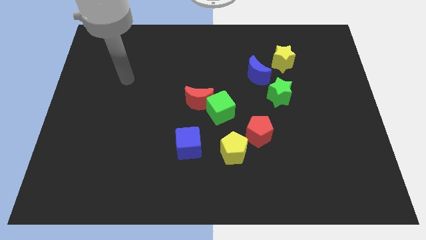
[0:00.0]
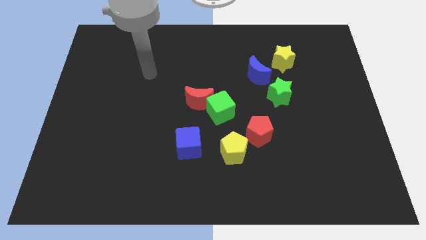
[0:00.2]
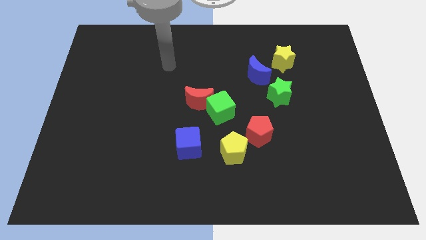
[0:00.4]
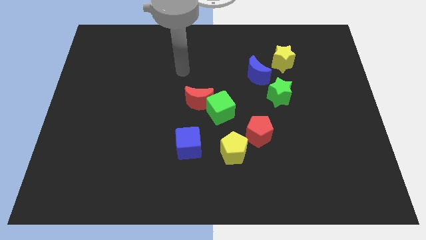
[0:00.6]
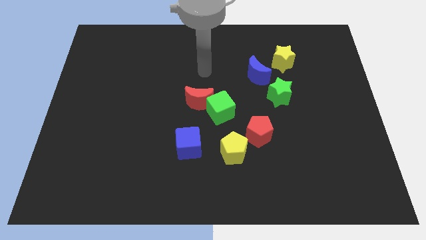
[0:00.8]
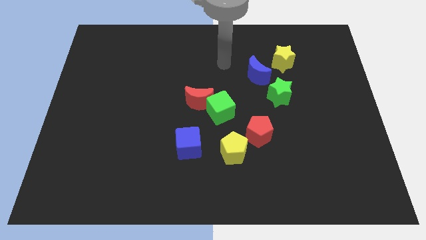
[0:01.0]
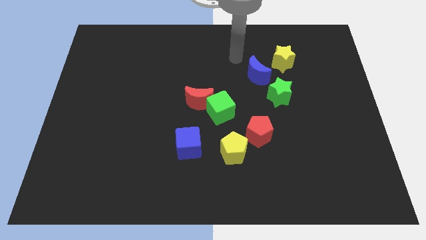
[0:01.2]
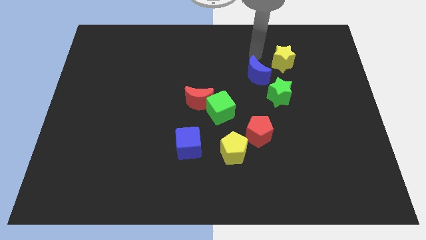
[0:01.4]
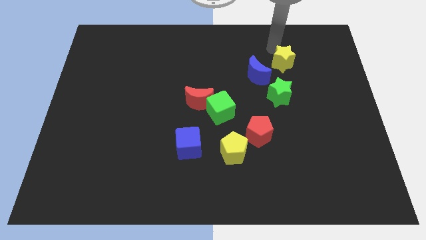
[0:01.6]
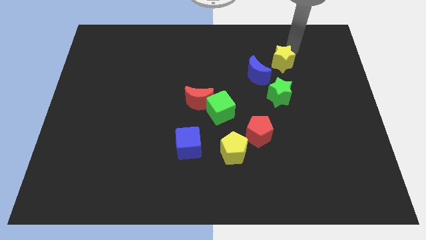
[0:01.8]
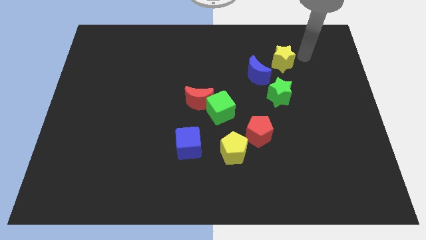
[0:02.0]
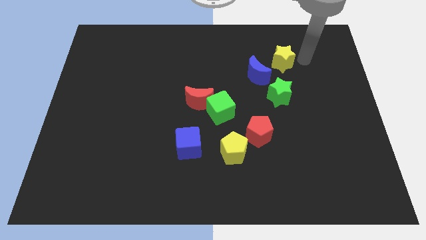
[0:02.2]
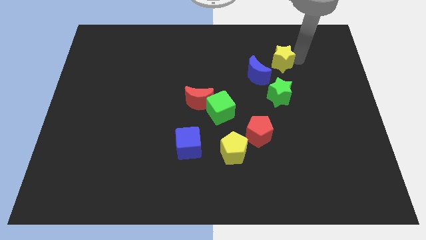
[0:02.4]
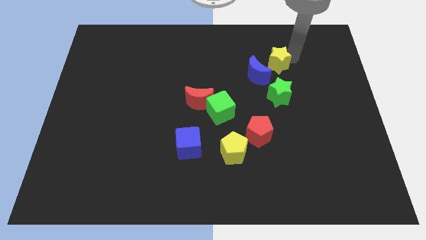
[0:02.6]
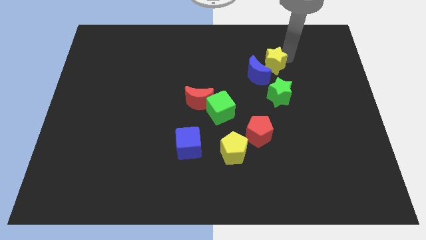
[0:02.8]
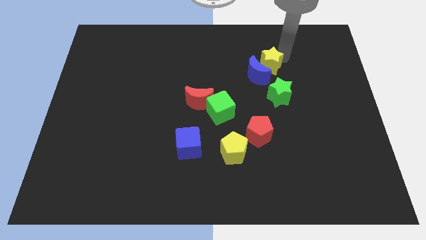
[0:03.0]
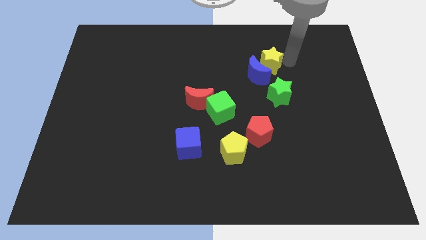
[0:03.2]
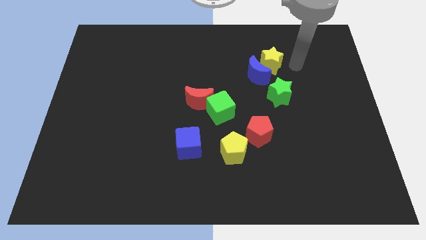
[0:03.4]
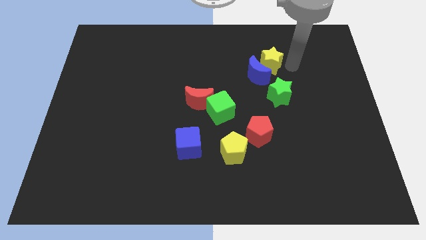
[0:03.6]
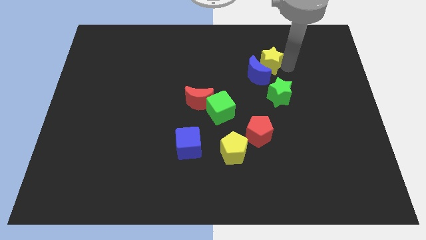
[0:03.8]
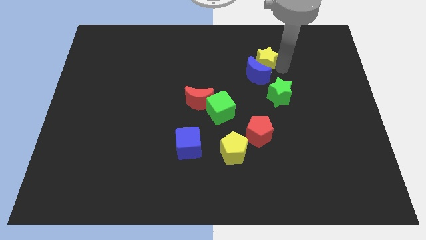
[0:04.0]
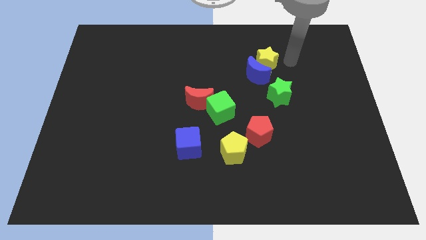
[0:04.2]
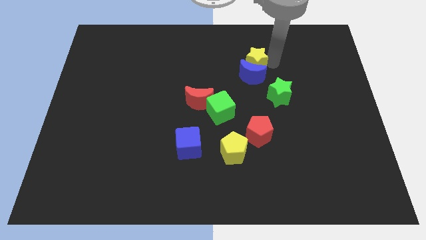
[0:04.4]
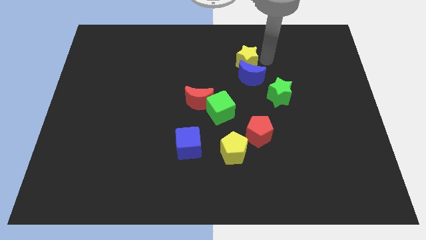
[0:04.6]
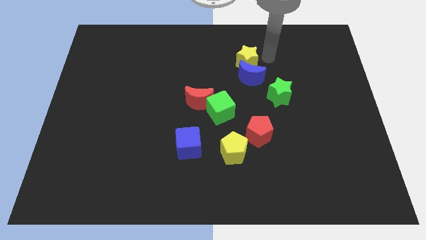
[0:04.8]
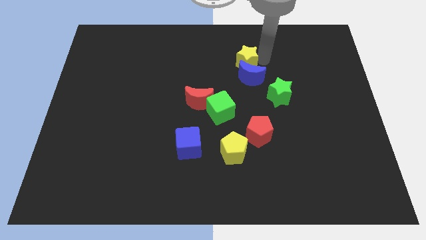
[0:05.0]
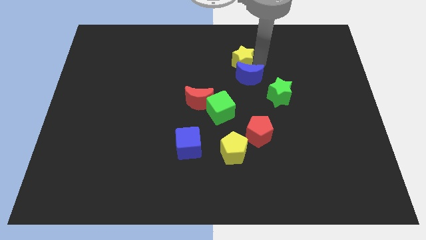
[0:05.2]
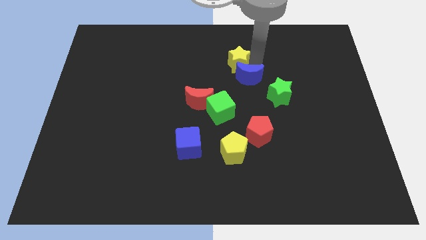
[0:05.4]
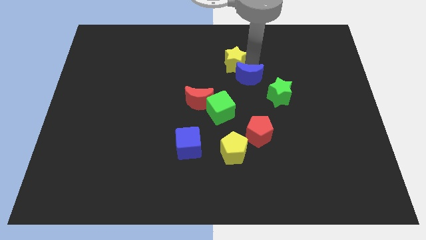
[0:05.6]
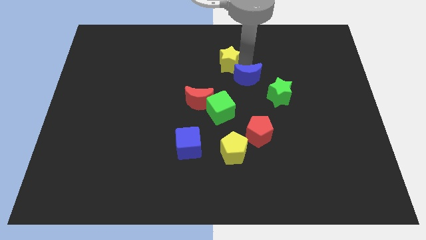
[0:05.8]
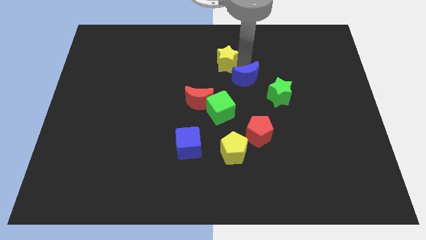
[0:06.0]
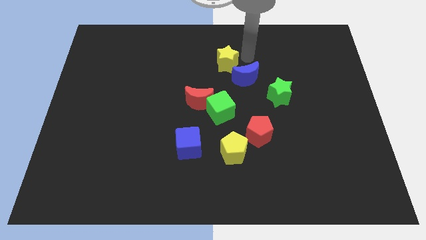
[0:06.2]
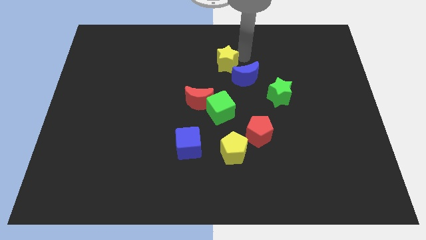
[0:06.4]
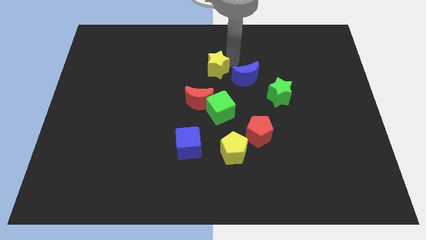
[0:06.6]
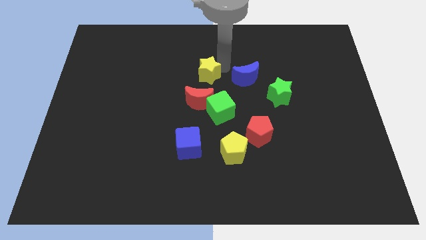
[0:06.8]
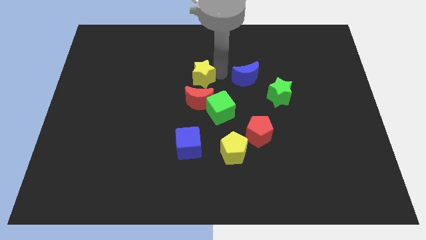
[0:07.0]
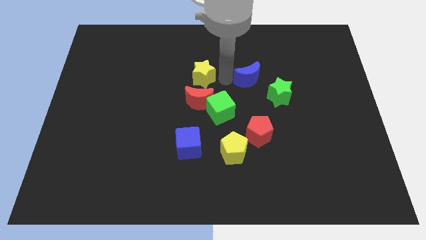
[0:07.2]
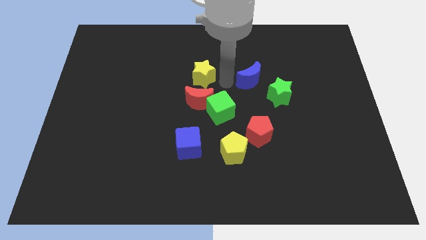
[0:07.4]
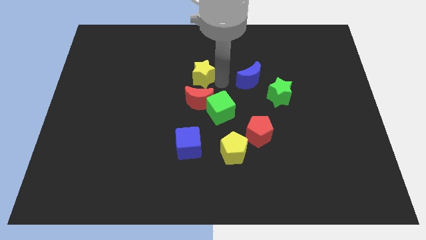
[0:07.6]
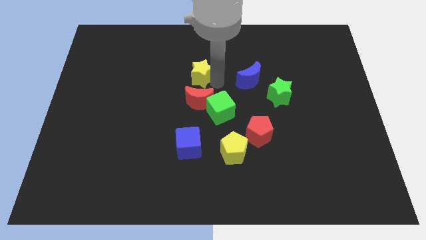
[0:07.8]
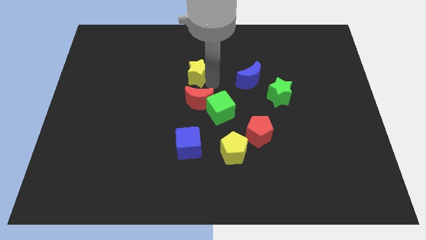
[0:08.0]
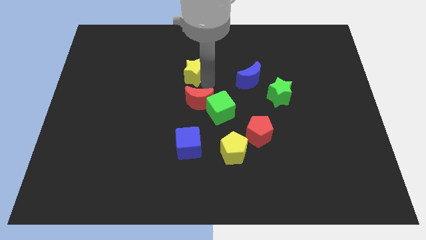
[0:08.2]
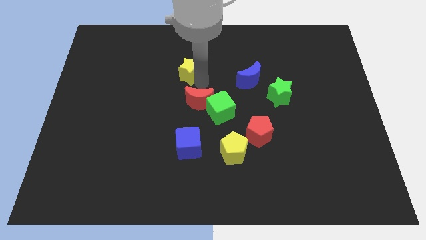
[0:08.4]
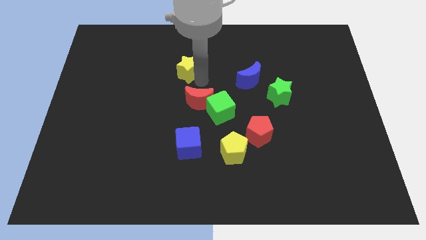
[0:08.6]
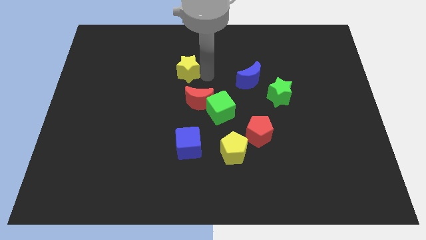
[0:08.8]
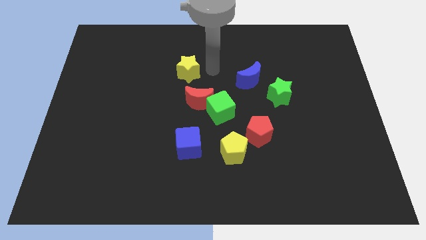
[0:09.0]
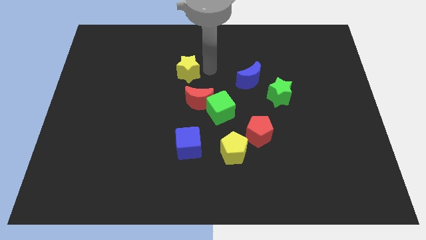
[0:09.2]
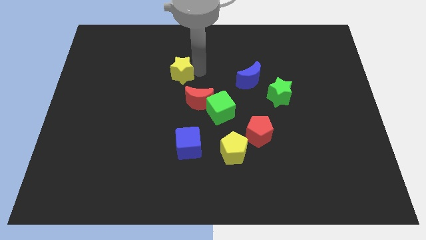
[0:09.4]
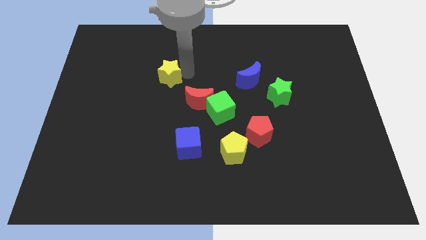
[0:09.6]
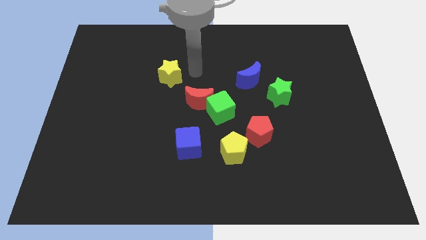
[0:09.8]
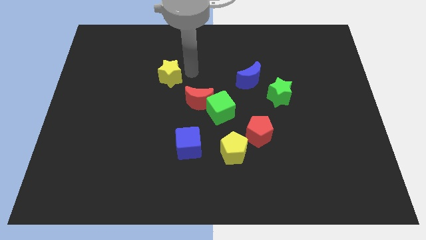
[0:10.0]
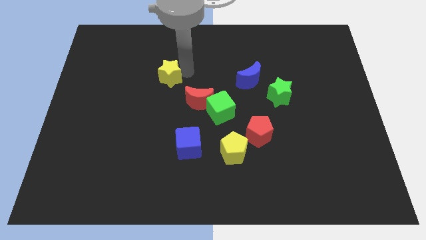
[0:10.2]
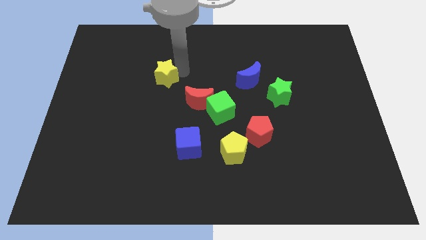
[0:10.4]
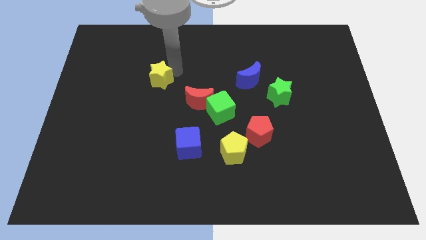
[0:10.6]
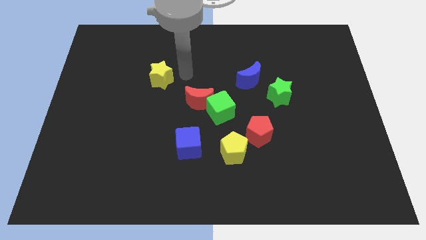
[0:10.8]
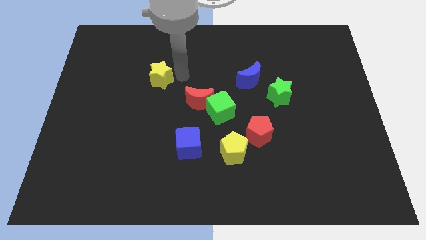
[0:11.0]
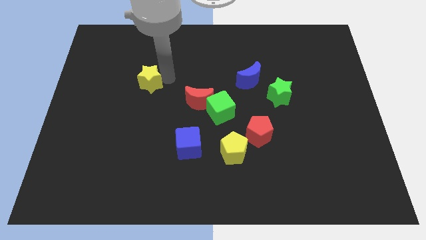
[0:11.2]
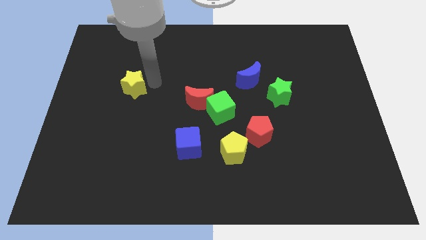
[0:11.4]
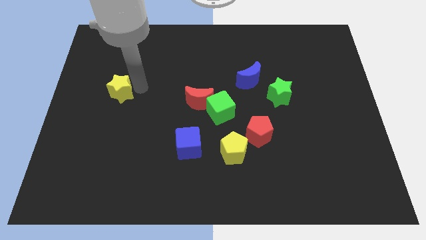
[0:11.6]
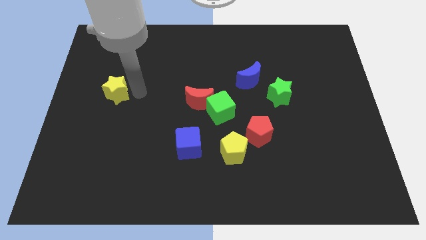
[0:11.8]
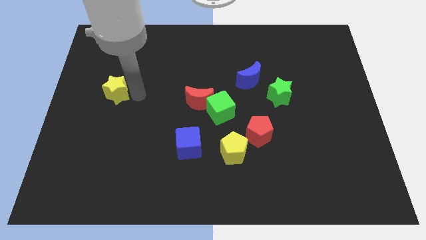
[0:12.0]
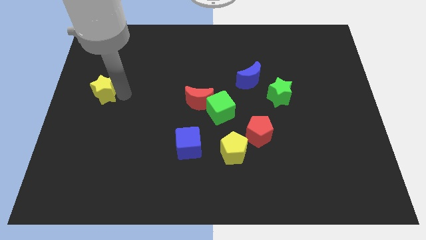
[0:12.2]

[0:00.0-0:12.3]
slide the yellow star to the left side

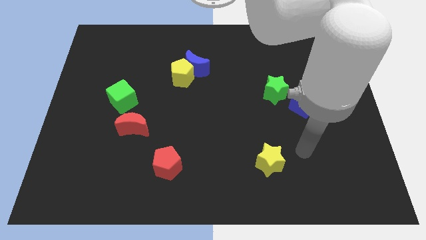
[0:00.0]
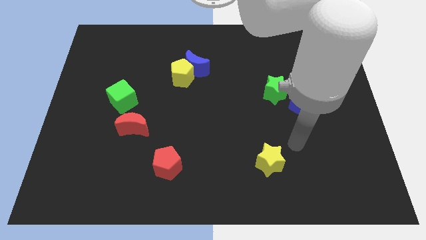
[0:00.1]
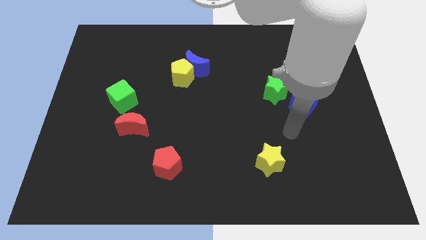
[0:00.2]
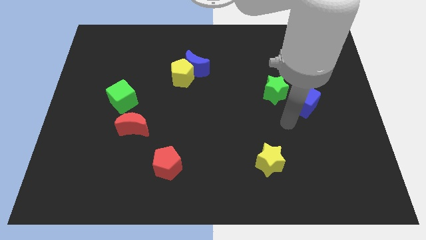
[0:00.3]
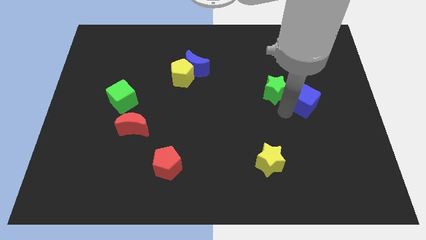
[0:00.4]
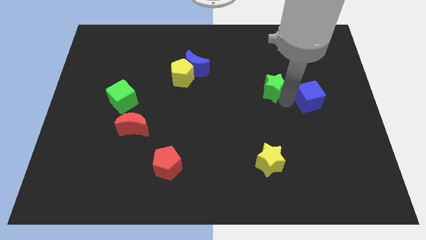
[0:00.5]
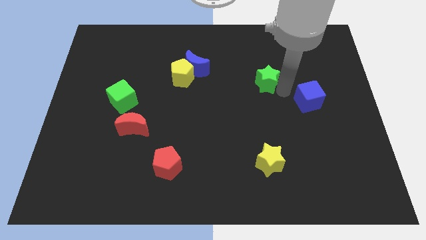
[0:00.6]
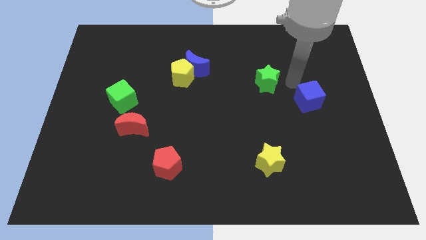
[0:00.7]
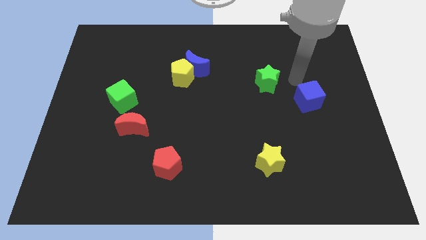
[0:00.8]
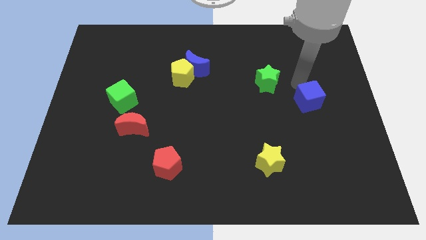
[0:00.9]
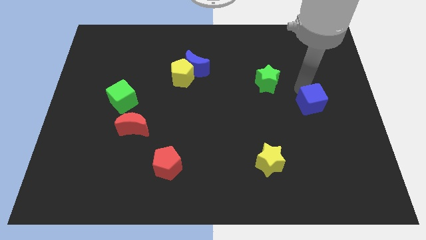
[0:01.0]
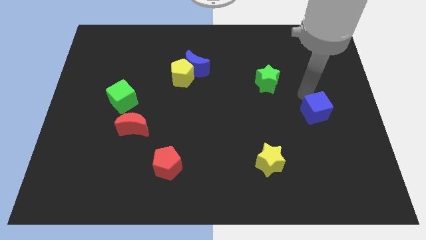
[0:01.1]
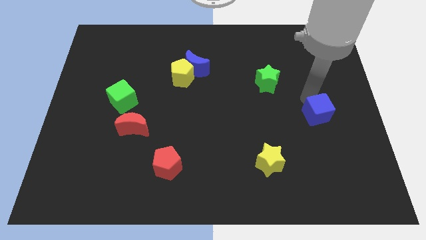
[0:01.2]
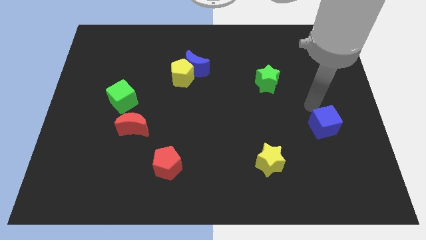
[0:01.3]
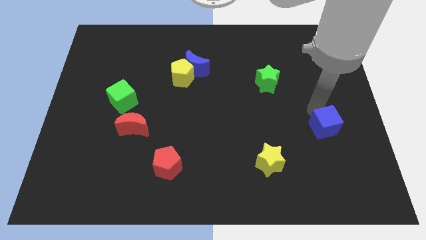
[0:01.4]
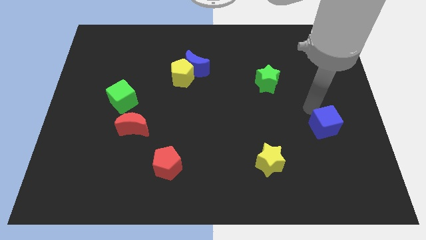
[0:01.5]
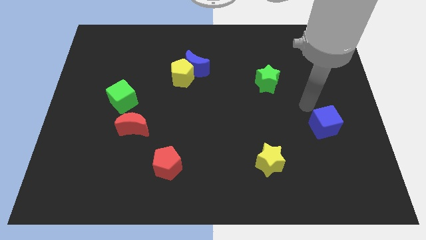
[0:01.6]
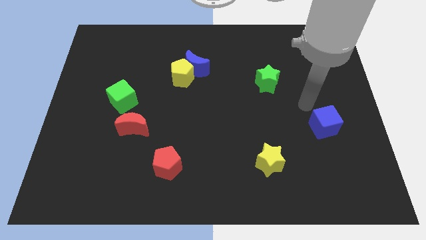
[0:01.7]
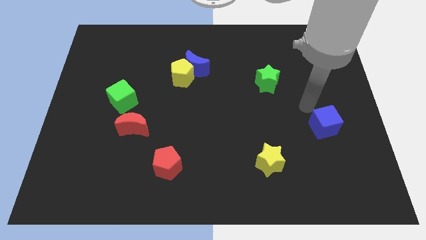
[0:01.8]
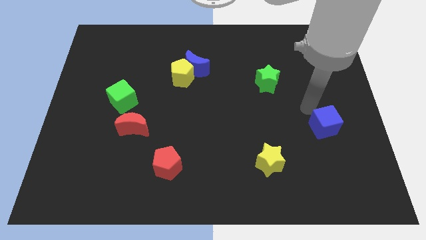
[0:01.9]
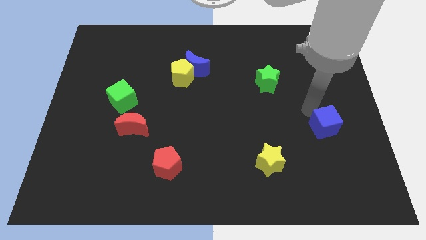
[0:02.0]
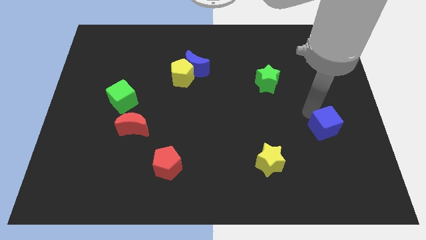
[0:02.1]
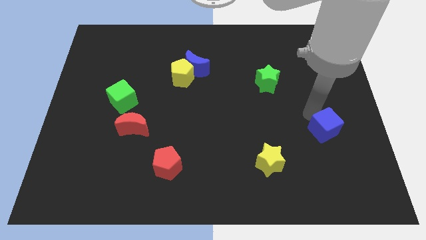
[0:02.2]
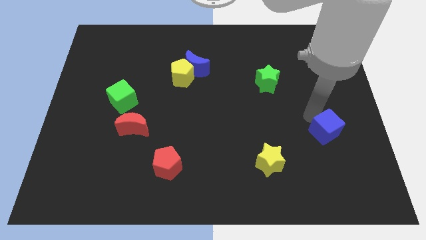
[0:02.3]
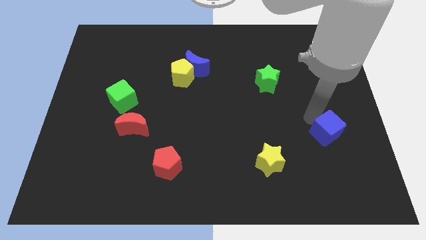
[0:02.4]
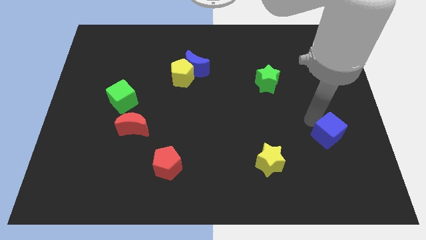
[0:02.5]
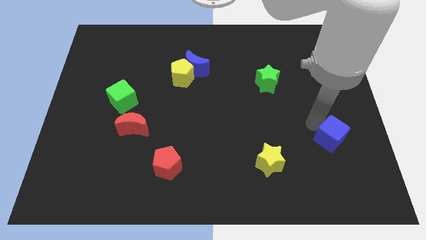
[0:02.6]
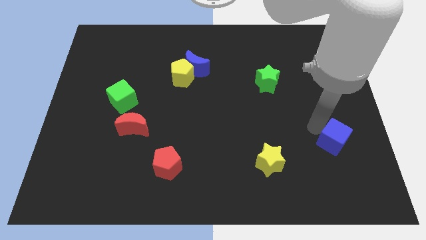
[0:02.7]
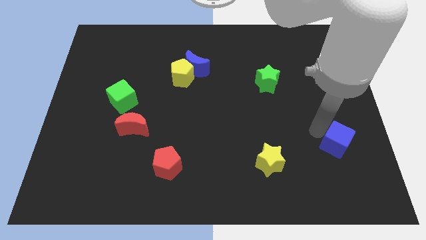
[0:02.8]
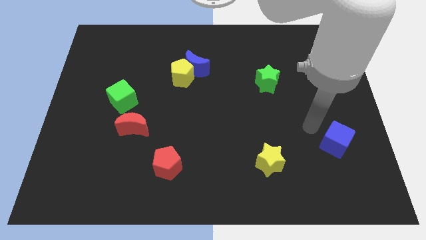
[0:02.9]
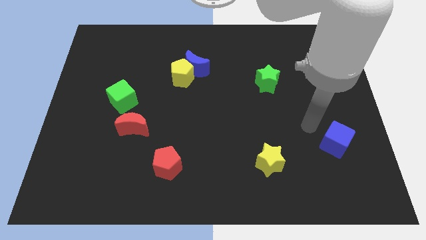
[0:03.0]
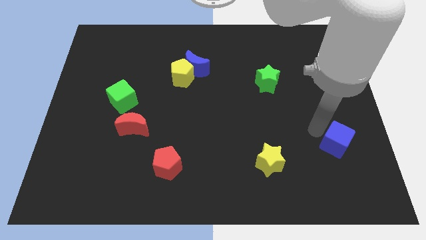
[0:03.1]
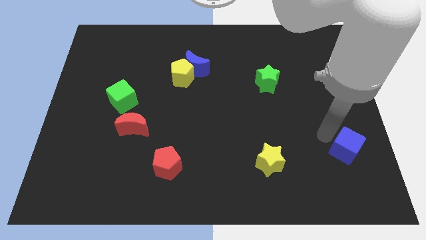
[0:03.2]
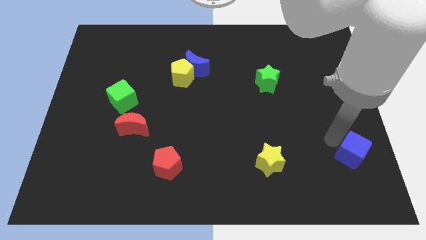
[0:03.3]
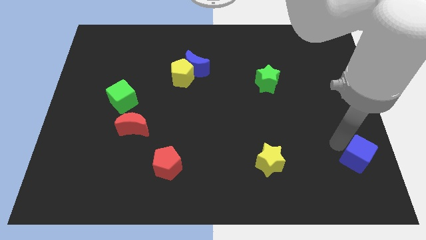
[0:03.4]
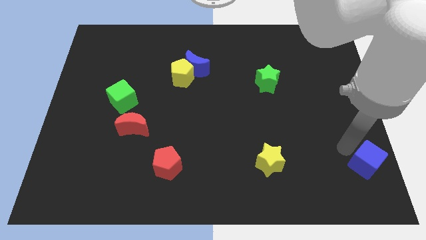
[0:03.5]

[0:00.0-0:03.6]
move the blue cube to the bottom right
